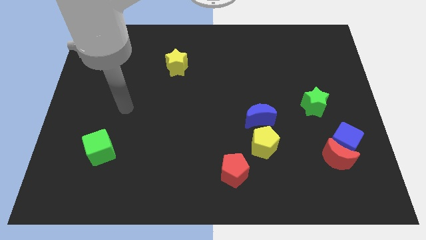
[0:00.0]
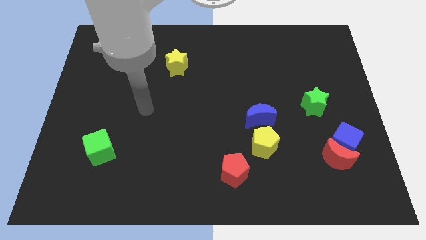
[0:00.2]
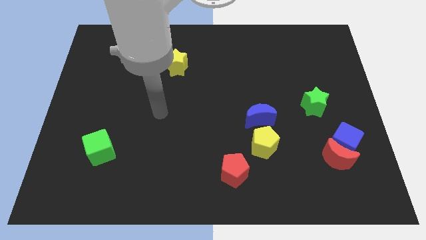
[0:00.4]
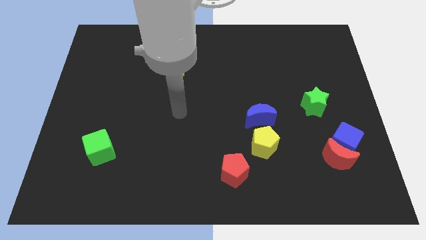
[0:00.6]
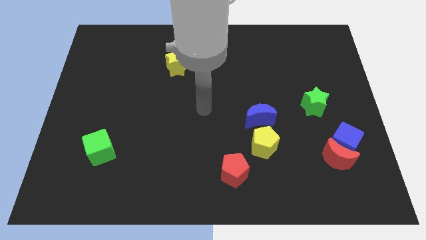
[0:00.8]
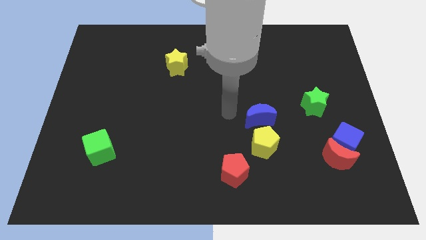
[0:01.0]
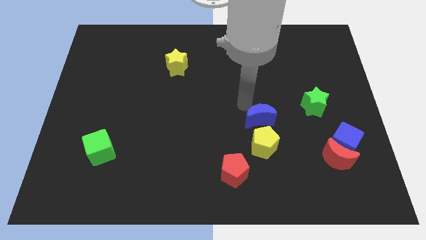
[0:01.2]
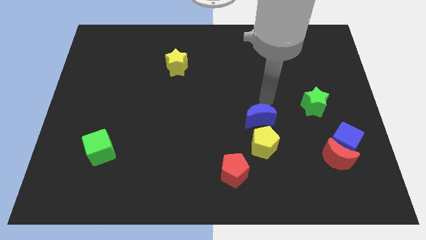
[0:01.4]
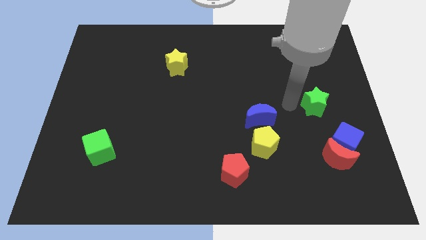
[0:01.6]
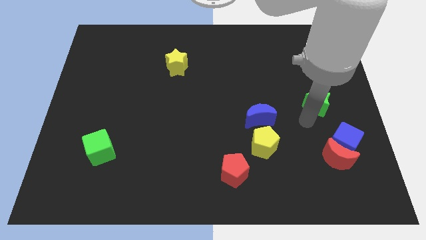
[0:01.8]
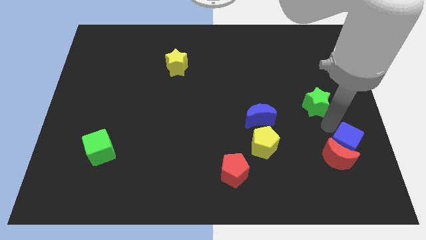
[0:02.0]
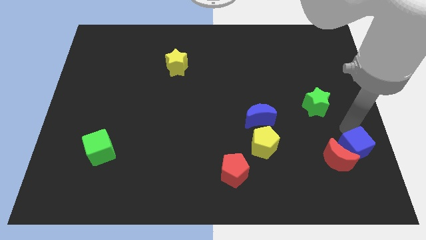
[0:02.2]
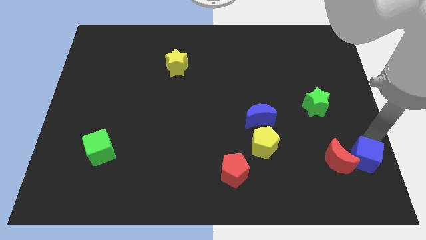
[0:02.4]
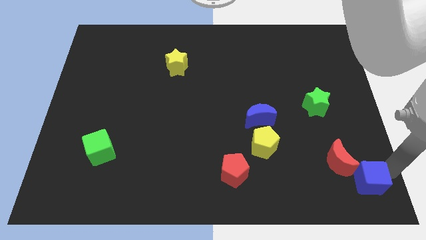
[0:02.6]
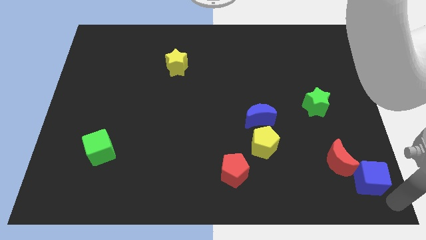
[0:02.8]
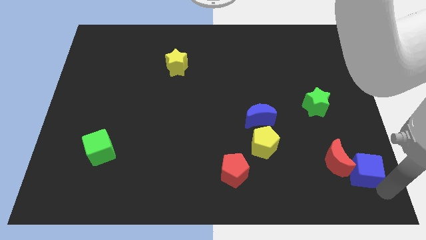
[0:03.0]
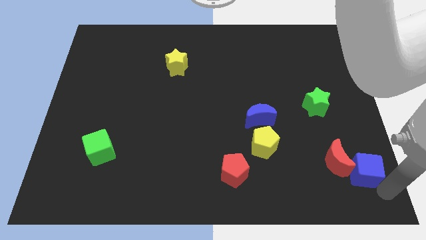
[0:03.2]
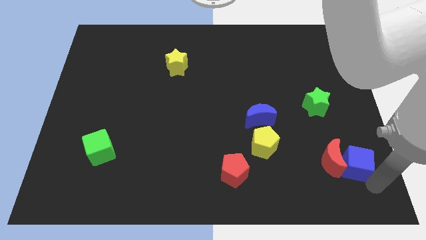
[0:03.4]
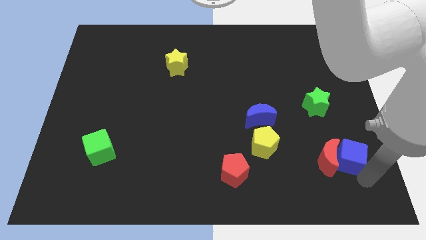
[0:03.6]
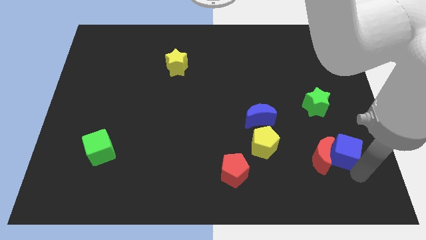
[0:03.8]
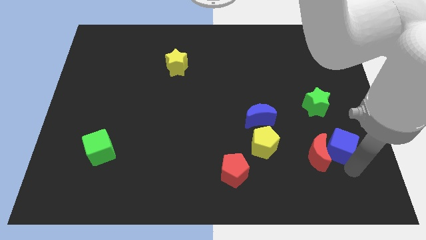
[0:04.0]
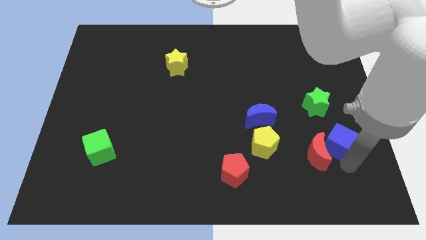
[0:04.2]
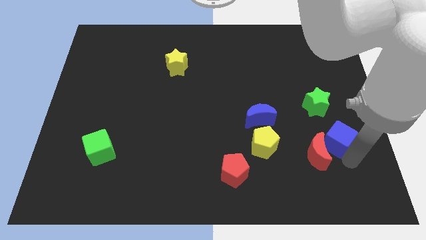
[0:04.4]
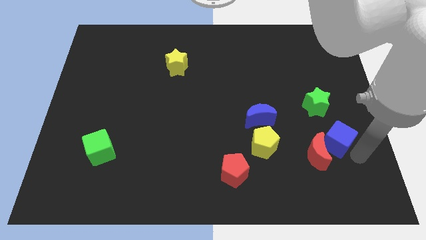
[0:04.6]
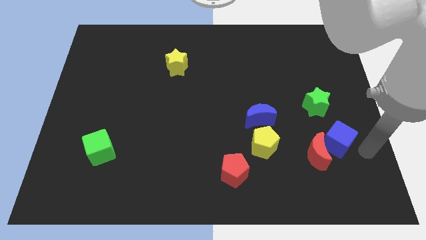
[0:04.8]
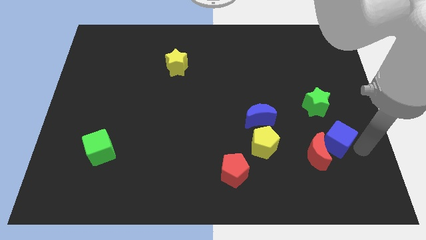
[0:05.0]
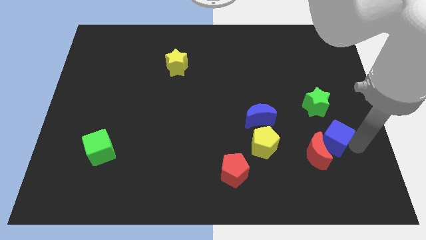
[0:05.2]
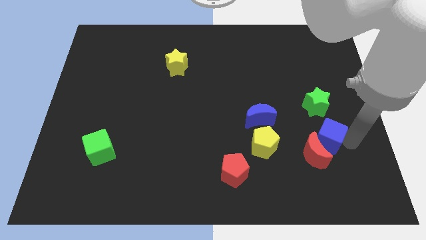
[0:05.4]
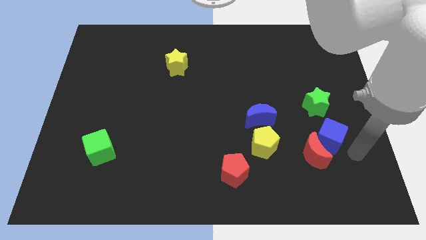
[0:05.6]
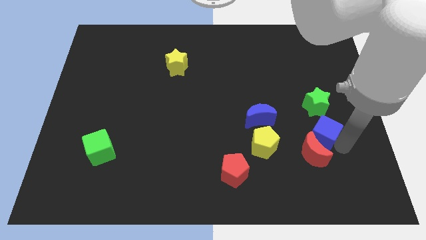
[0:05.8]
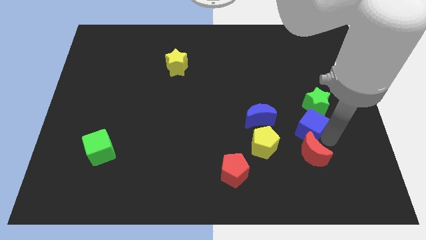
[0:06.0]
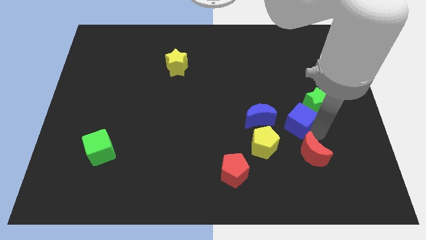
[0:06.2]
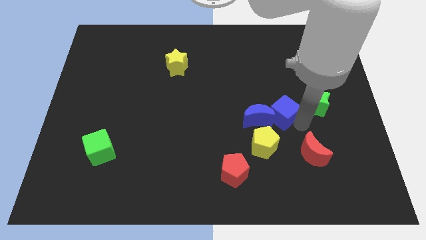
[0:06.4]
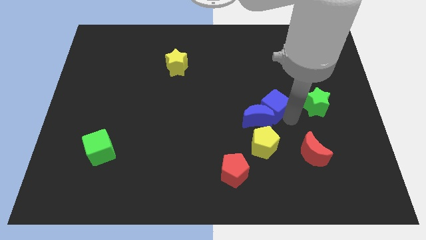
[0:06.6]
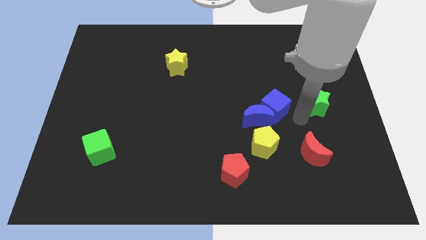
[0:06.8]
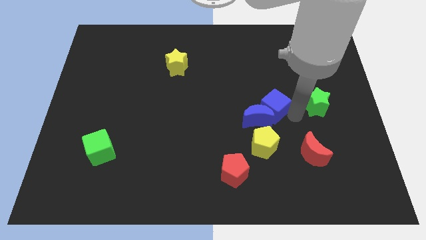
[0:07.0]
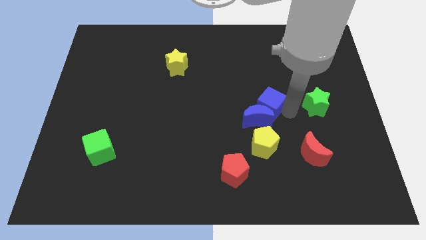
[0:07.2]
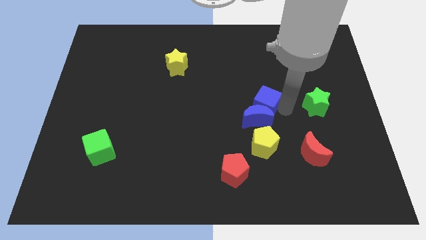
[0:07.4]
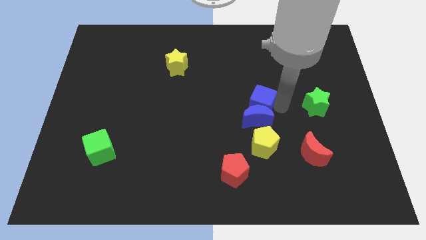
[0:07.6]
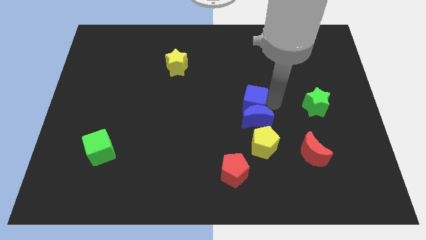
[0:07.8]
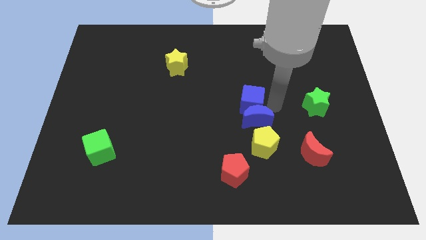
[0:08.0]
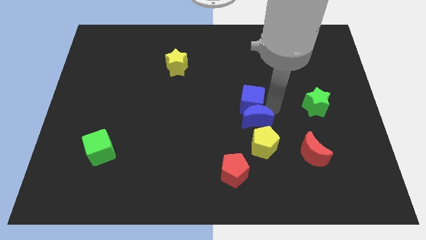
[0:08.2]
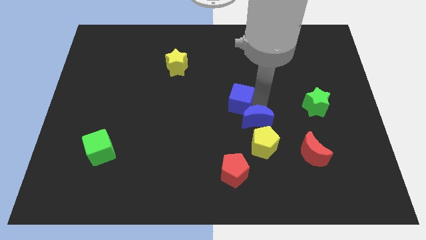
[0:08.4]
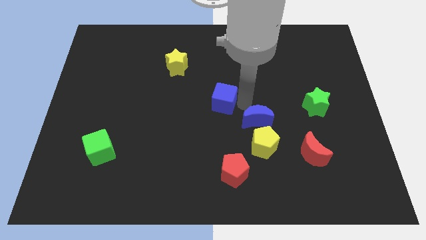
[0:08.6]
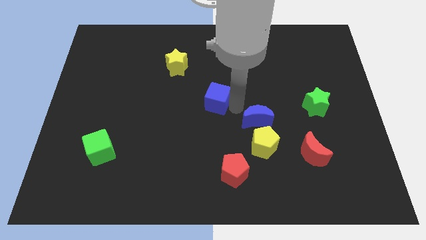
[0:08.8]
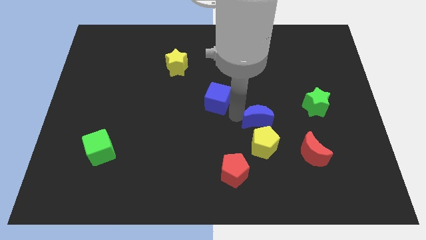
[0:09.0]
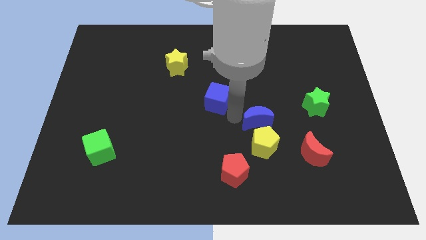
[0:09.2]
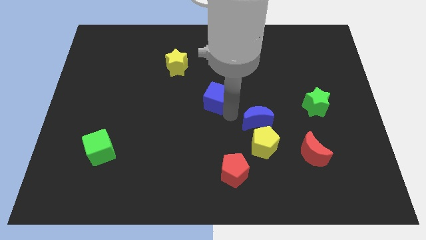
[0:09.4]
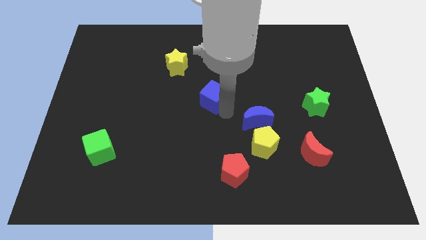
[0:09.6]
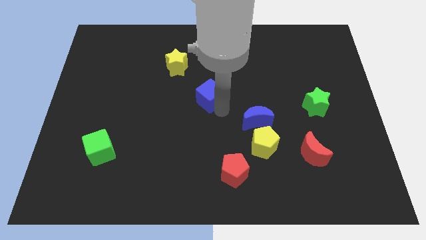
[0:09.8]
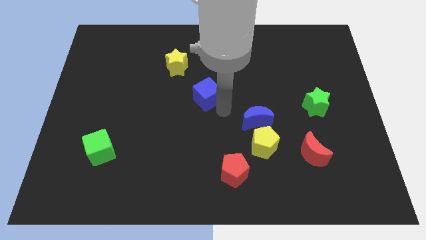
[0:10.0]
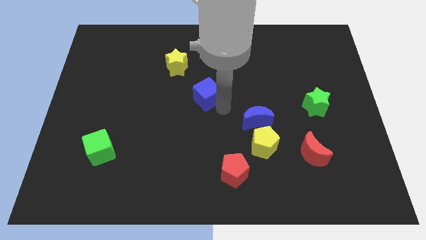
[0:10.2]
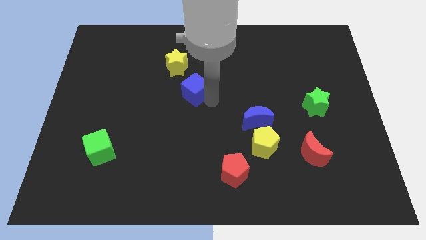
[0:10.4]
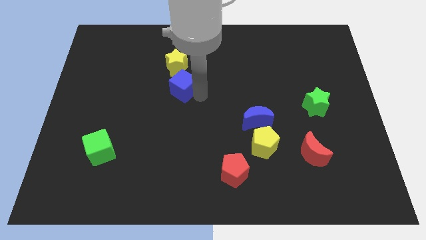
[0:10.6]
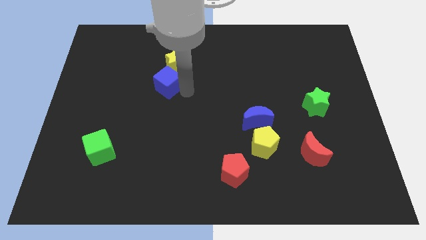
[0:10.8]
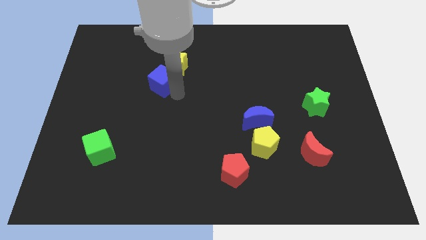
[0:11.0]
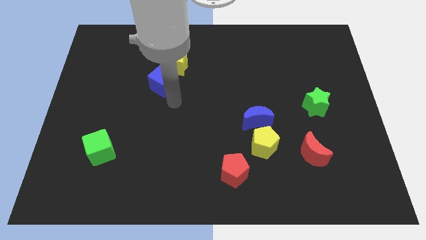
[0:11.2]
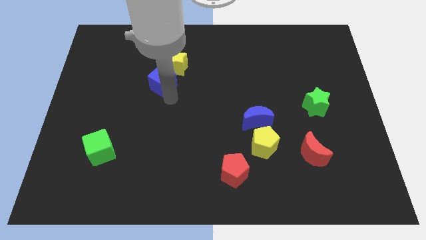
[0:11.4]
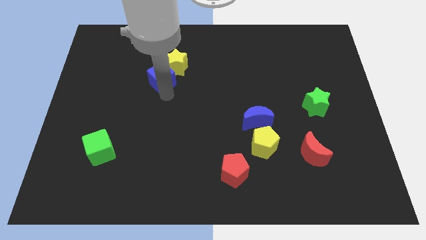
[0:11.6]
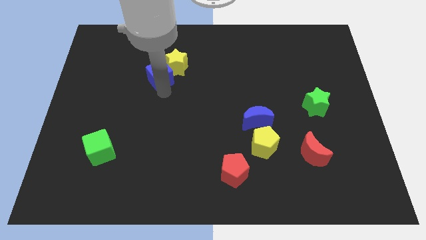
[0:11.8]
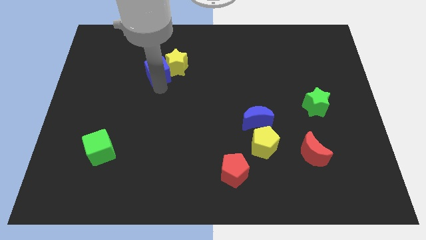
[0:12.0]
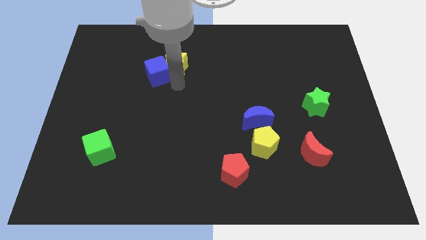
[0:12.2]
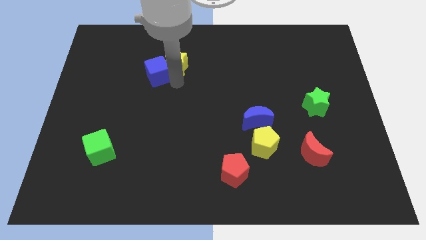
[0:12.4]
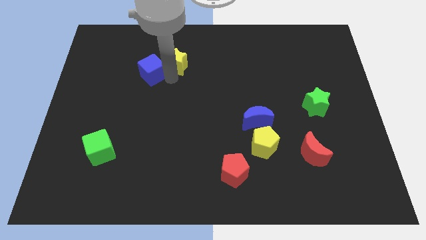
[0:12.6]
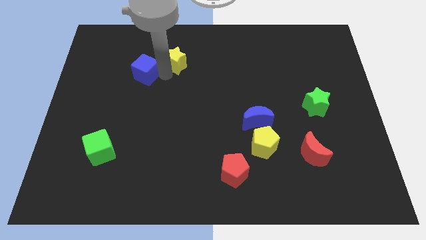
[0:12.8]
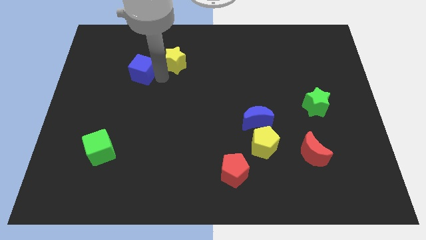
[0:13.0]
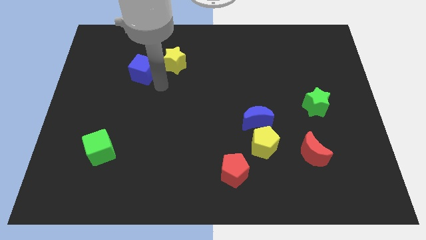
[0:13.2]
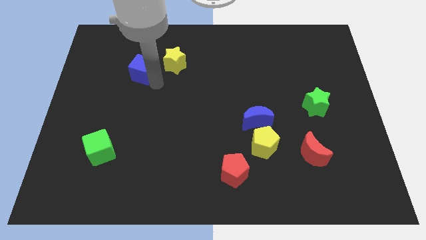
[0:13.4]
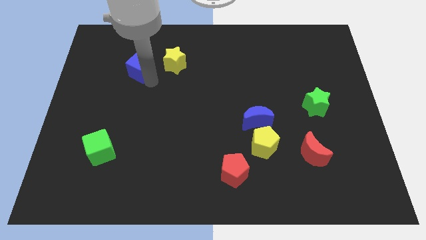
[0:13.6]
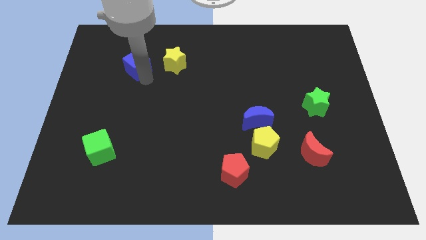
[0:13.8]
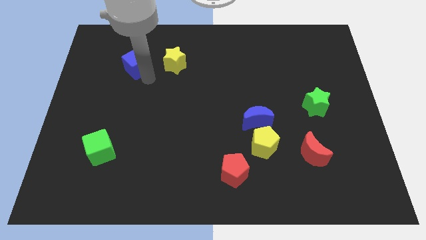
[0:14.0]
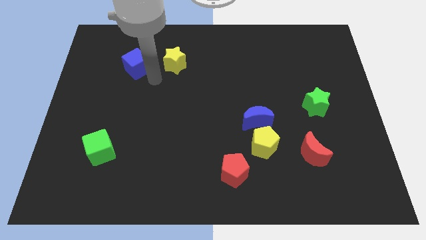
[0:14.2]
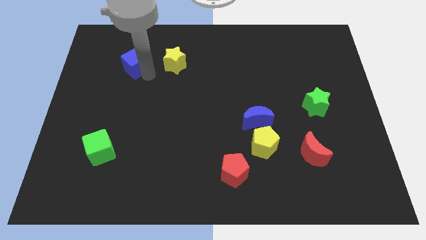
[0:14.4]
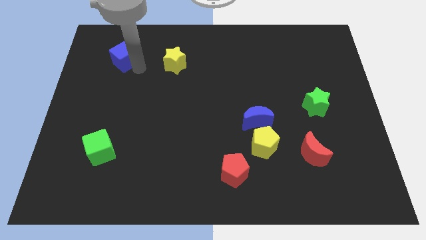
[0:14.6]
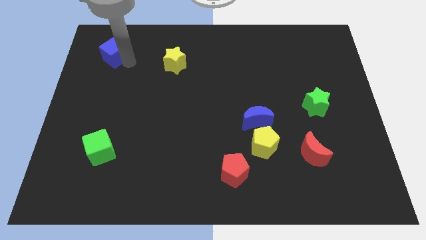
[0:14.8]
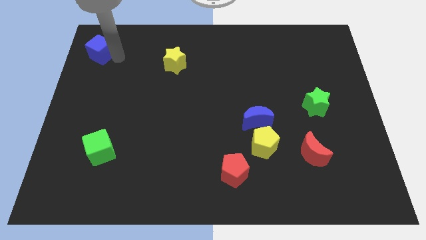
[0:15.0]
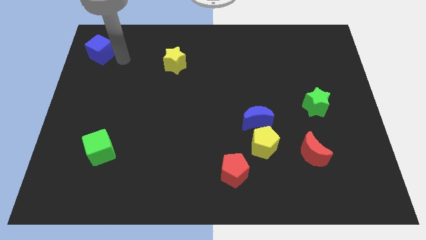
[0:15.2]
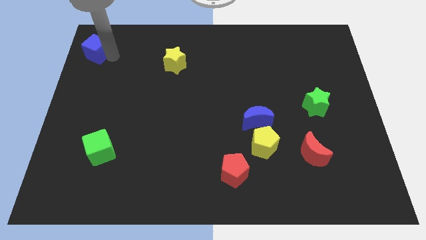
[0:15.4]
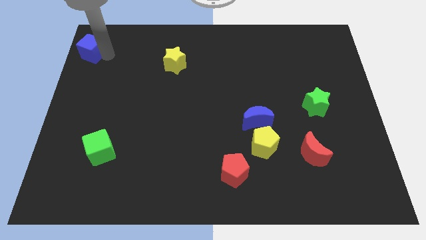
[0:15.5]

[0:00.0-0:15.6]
put the blue cube to the top left of the board

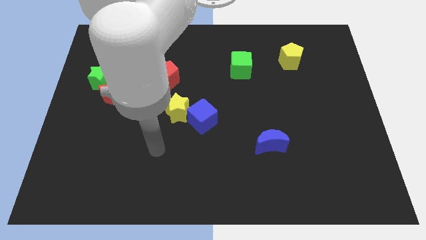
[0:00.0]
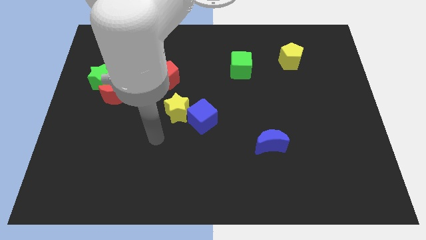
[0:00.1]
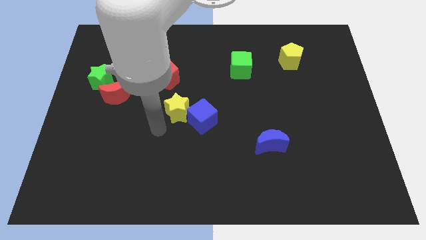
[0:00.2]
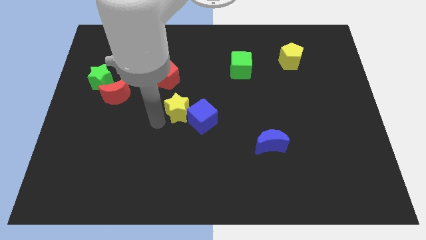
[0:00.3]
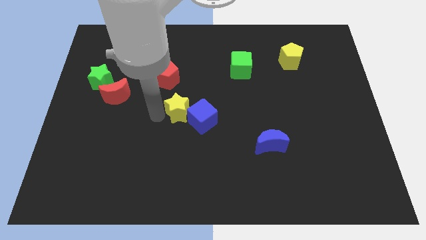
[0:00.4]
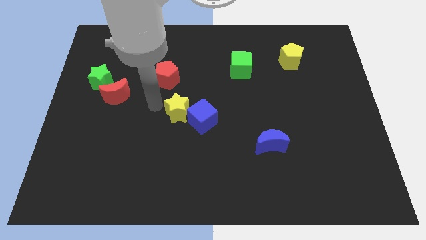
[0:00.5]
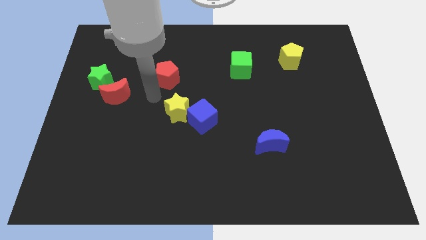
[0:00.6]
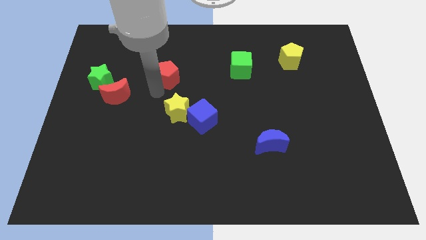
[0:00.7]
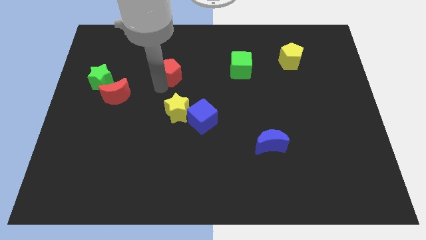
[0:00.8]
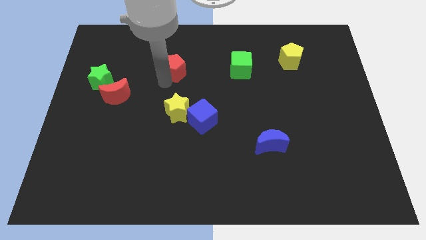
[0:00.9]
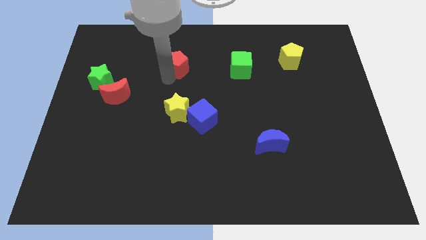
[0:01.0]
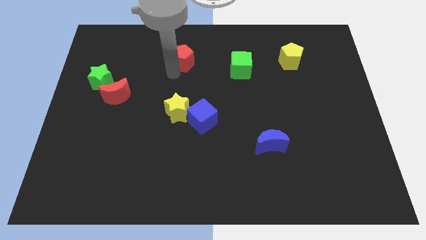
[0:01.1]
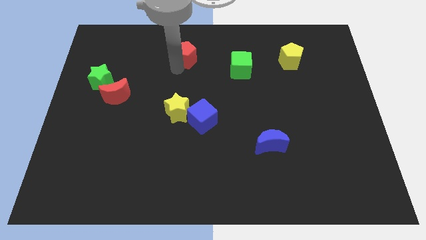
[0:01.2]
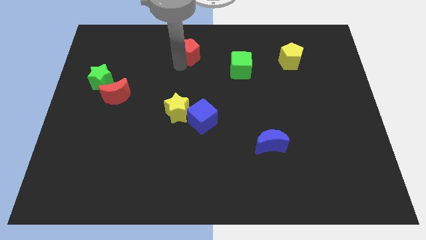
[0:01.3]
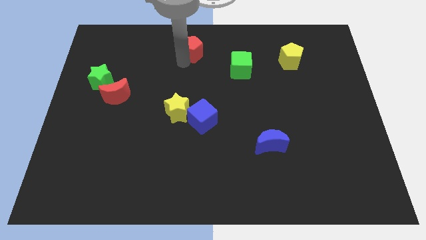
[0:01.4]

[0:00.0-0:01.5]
slide the red pentagon to the towards your base
